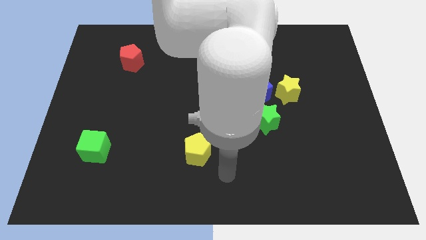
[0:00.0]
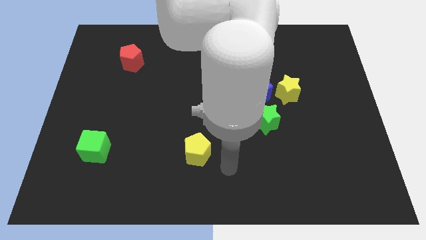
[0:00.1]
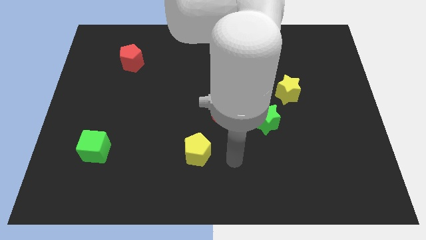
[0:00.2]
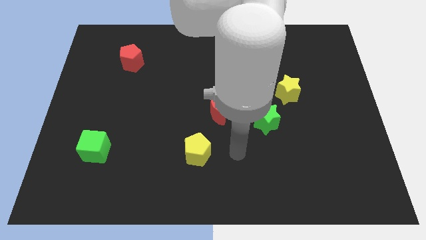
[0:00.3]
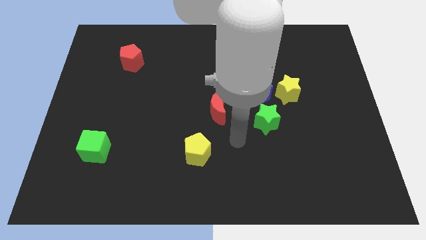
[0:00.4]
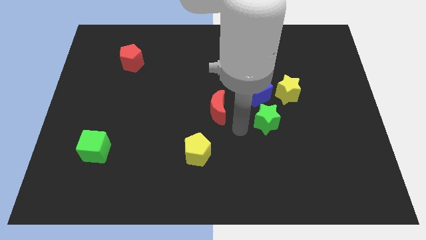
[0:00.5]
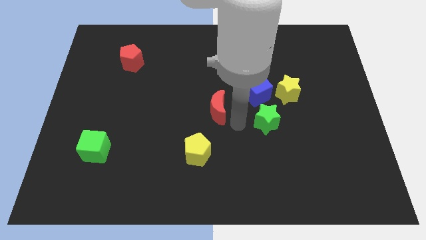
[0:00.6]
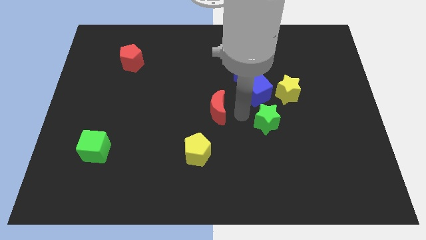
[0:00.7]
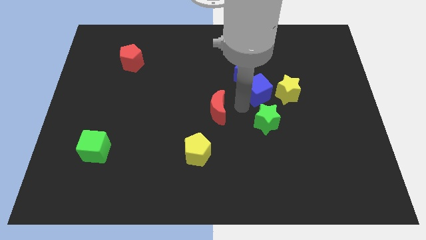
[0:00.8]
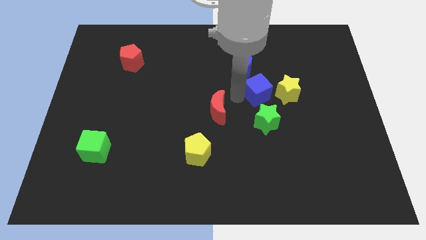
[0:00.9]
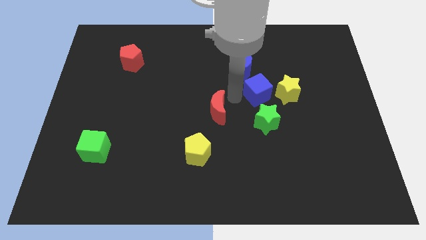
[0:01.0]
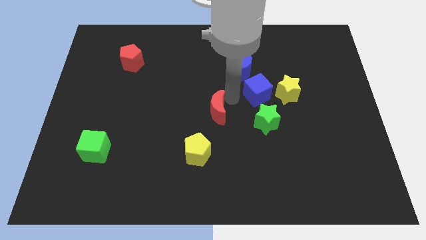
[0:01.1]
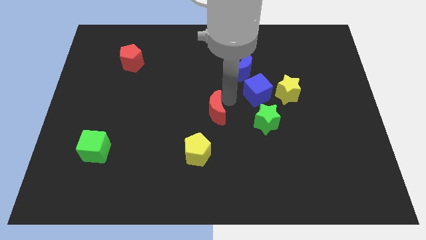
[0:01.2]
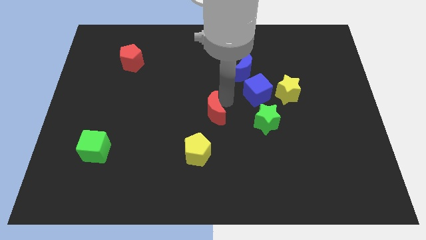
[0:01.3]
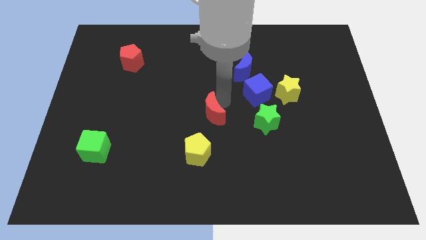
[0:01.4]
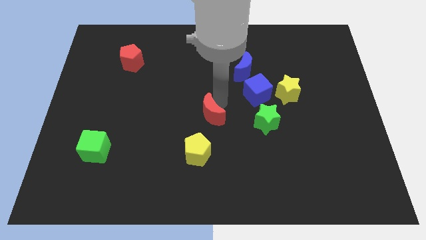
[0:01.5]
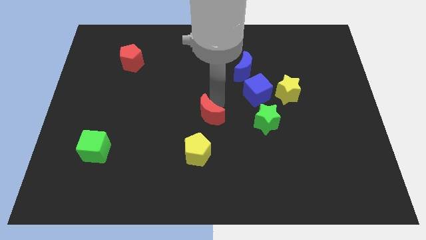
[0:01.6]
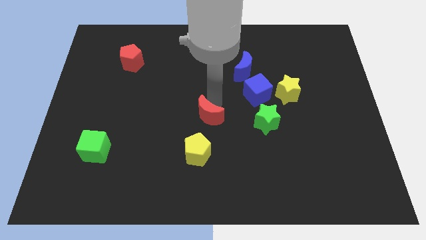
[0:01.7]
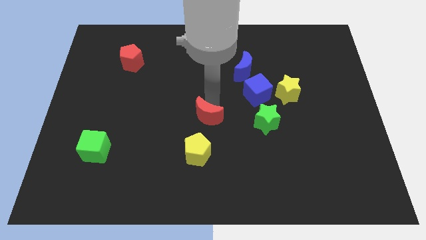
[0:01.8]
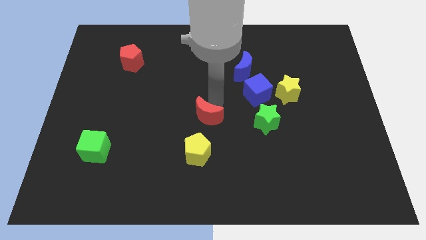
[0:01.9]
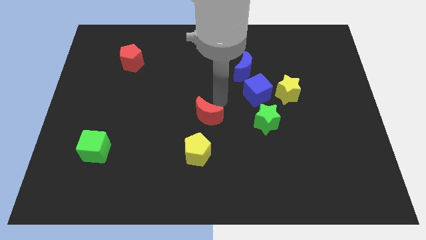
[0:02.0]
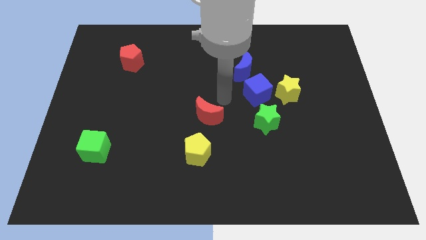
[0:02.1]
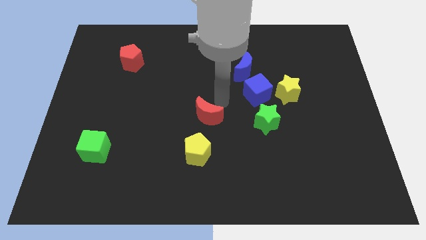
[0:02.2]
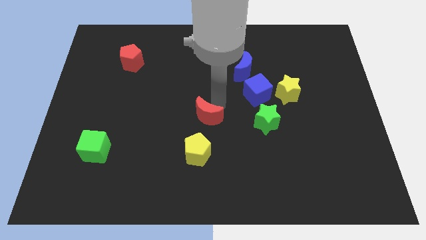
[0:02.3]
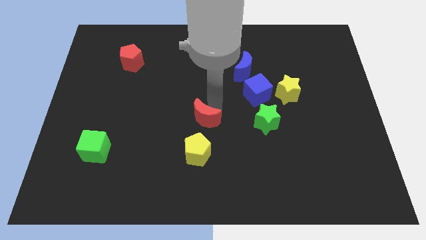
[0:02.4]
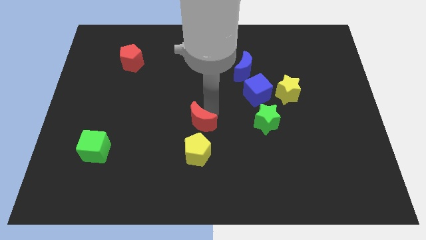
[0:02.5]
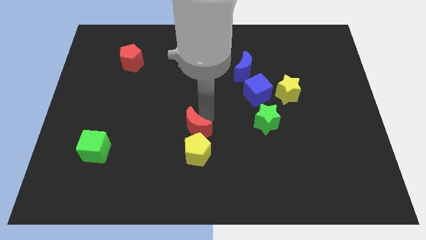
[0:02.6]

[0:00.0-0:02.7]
slide the red moon a little bit downwards and then left

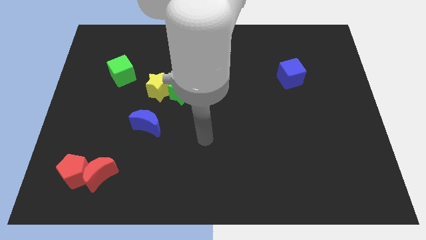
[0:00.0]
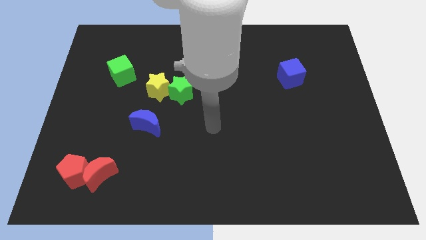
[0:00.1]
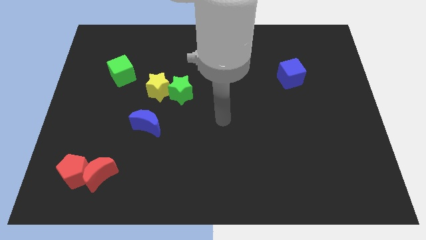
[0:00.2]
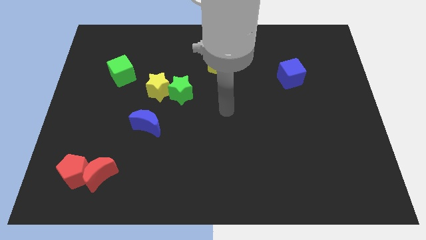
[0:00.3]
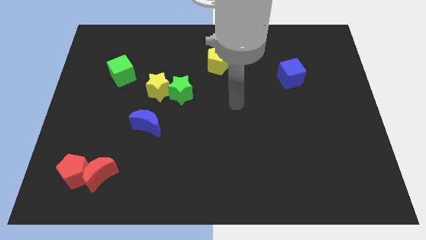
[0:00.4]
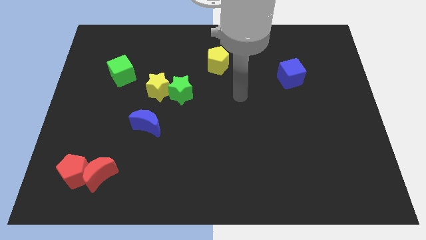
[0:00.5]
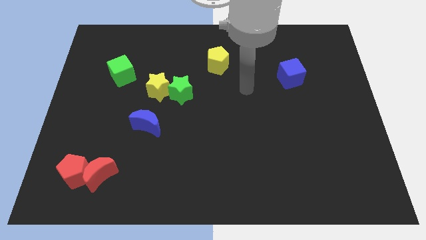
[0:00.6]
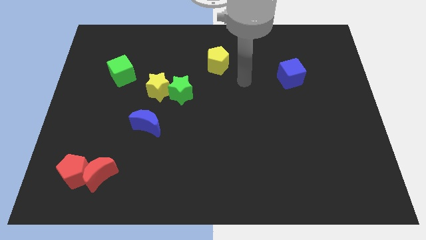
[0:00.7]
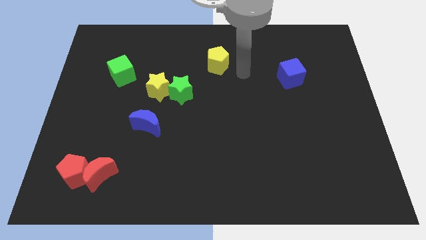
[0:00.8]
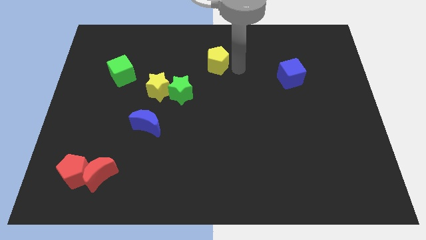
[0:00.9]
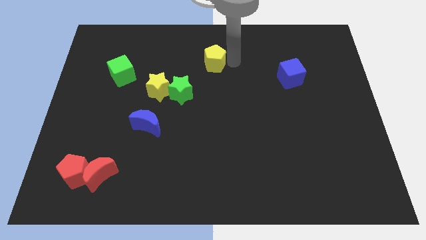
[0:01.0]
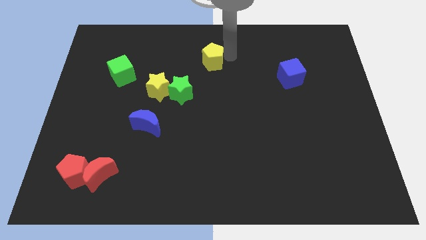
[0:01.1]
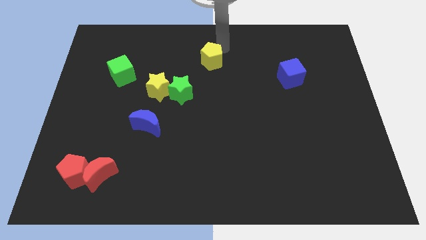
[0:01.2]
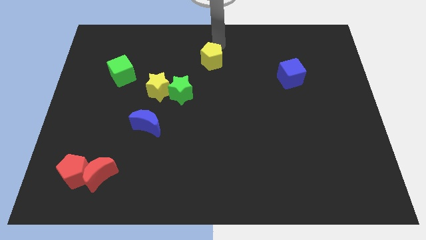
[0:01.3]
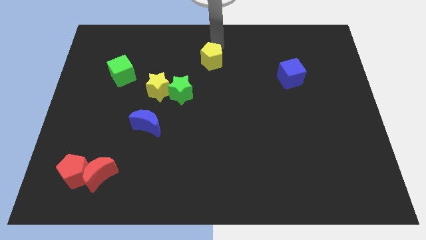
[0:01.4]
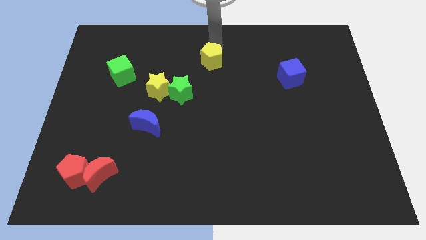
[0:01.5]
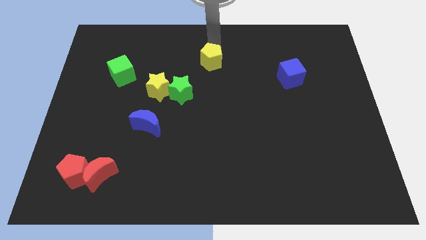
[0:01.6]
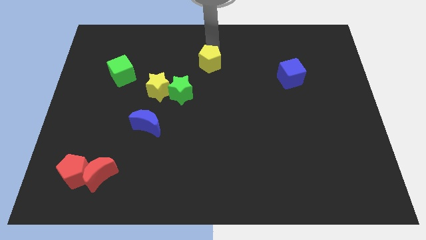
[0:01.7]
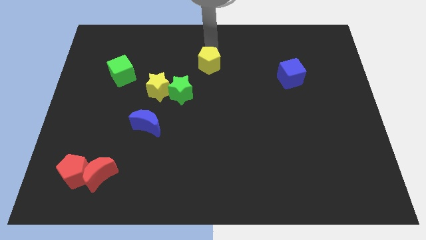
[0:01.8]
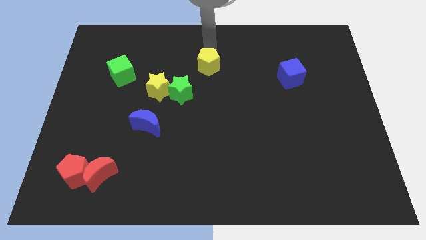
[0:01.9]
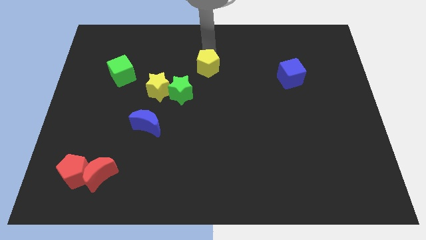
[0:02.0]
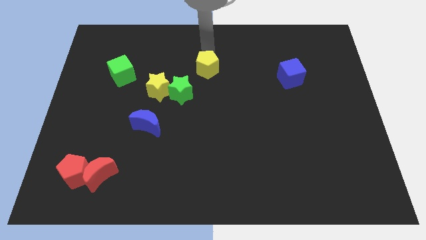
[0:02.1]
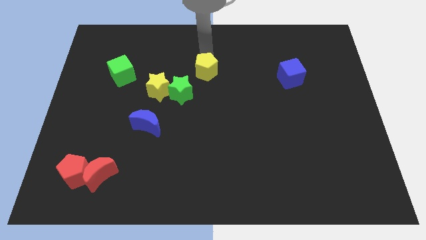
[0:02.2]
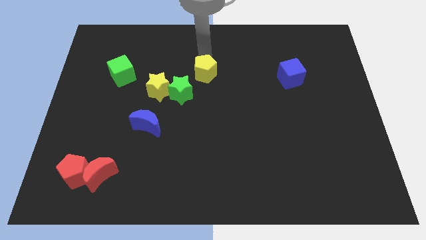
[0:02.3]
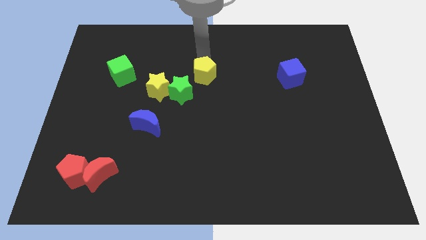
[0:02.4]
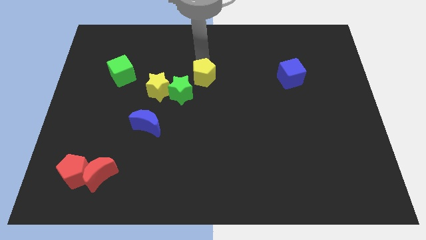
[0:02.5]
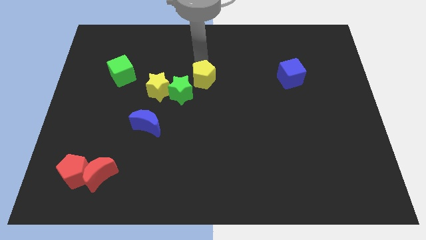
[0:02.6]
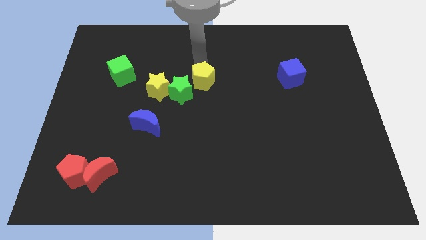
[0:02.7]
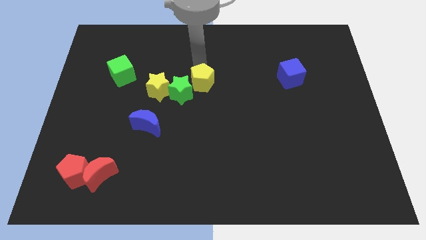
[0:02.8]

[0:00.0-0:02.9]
slightly move the yellow pentagon down and to the left

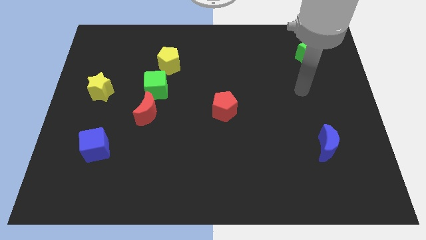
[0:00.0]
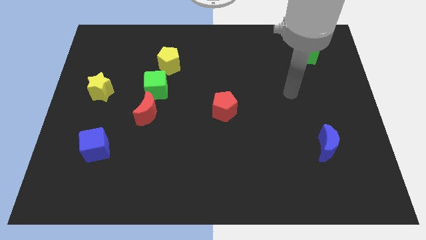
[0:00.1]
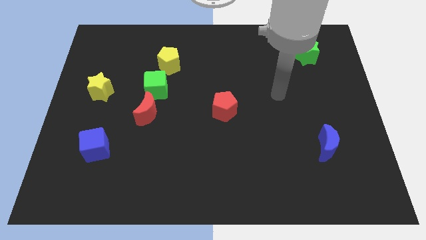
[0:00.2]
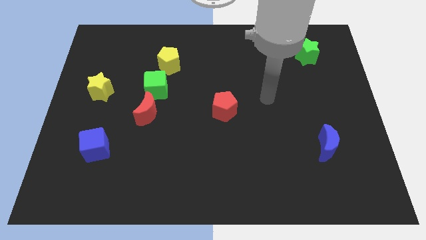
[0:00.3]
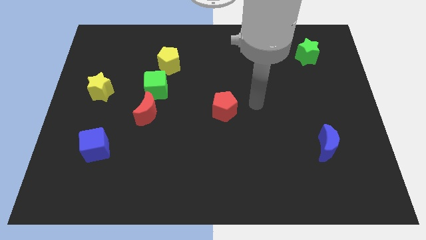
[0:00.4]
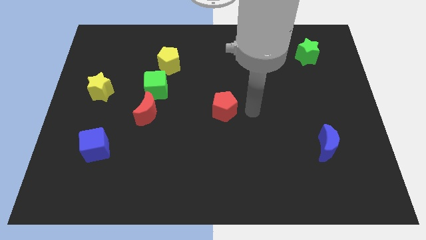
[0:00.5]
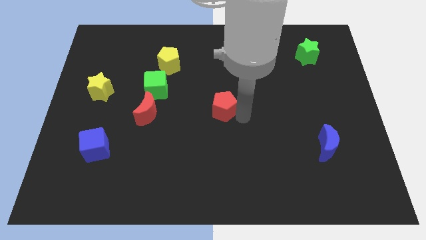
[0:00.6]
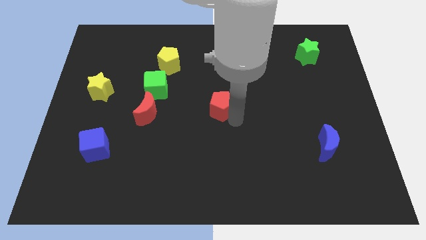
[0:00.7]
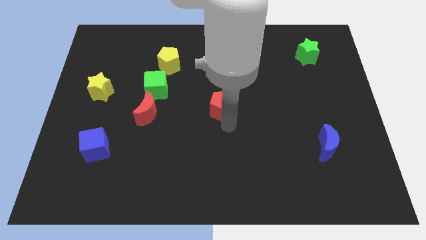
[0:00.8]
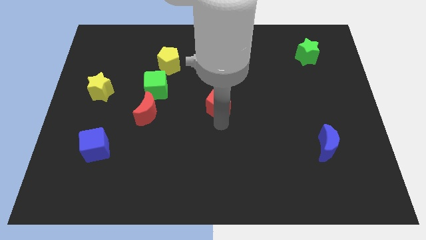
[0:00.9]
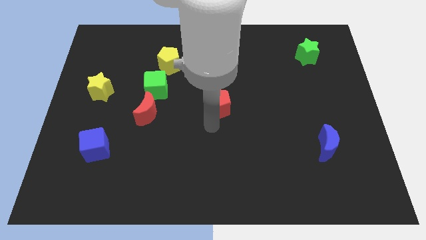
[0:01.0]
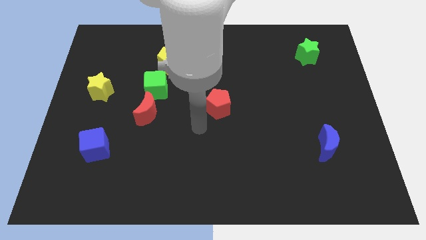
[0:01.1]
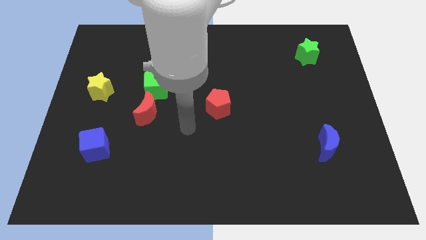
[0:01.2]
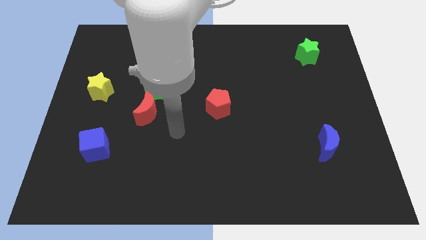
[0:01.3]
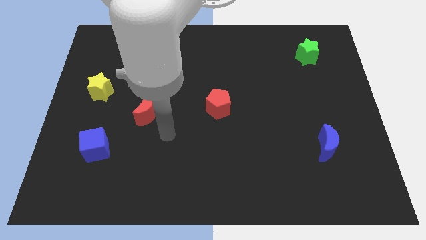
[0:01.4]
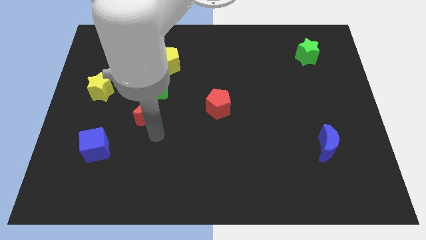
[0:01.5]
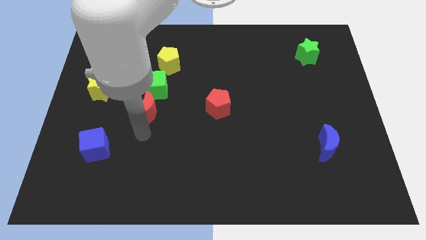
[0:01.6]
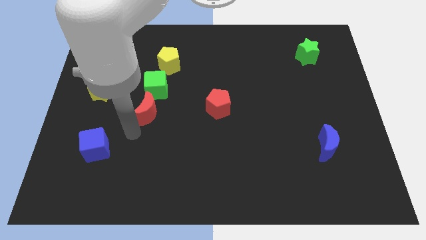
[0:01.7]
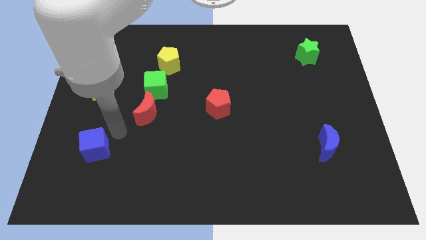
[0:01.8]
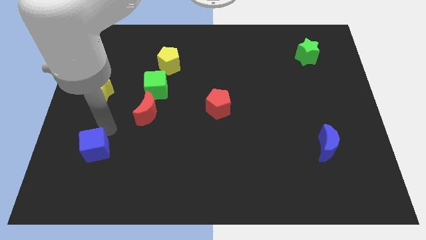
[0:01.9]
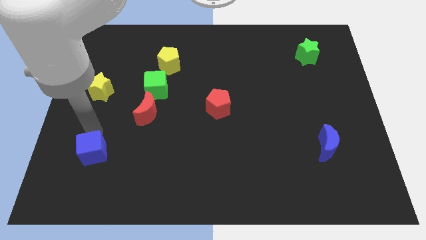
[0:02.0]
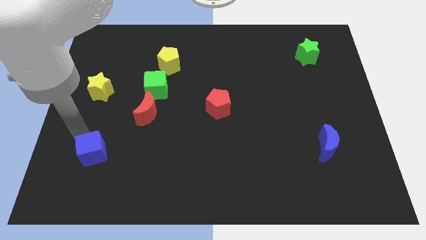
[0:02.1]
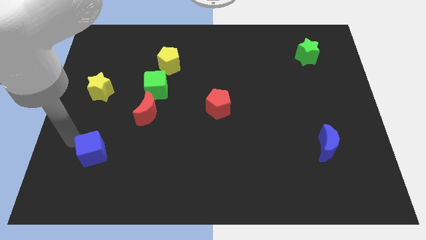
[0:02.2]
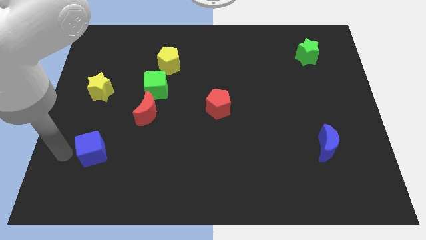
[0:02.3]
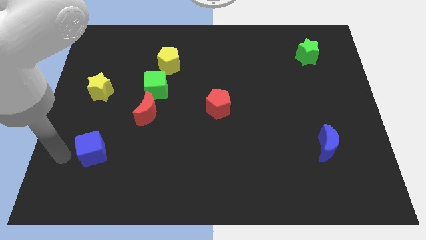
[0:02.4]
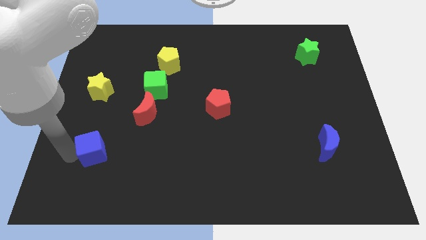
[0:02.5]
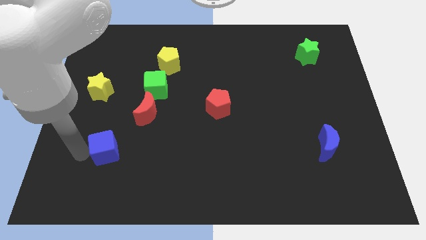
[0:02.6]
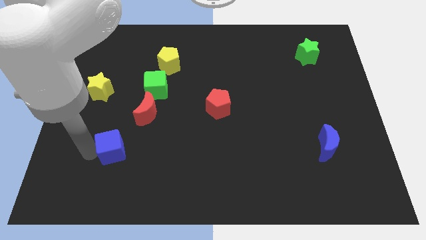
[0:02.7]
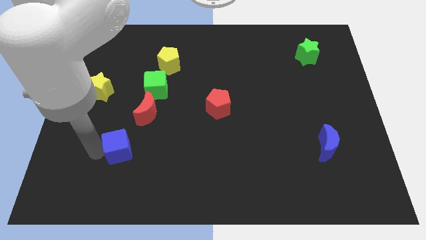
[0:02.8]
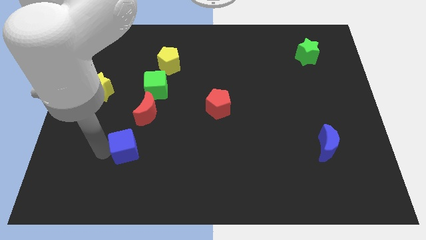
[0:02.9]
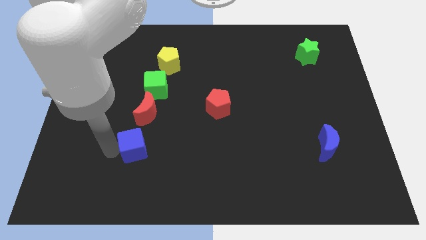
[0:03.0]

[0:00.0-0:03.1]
slide the blue cube to the right a bit
